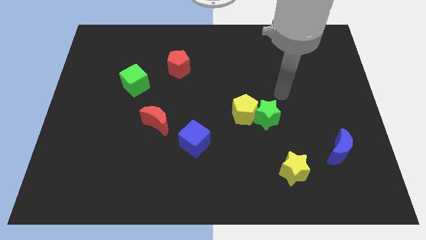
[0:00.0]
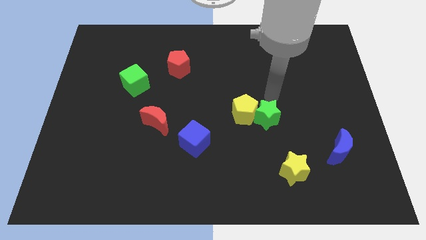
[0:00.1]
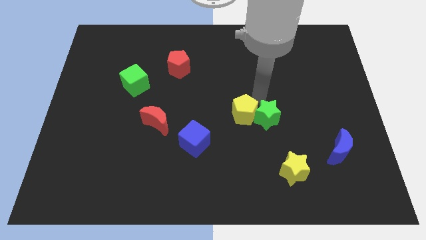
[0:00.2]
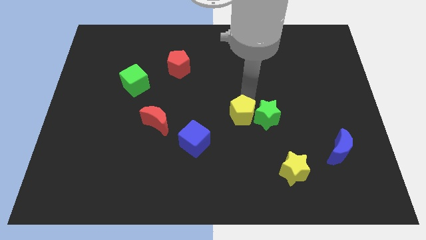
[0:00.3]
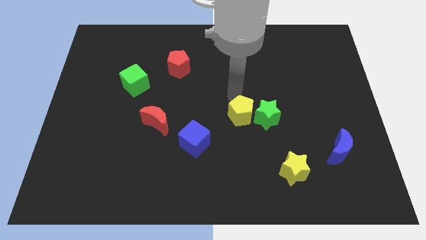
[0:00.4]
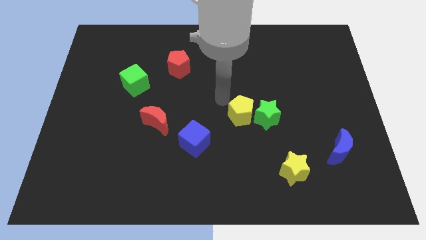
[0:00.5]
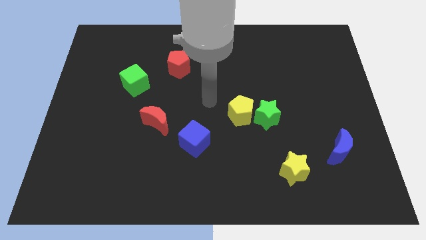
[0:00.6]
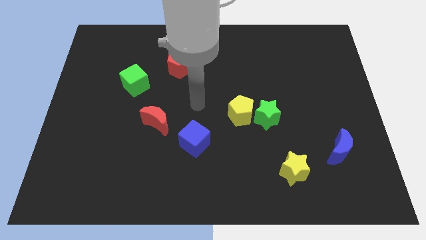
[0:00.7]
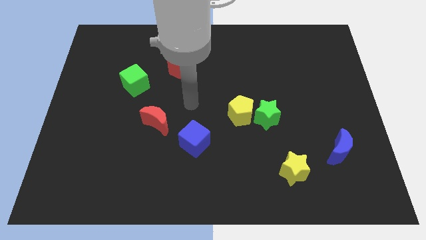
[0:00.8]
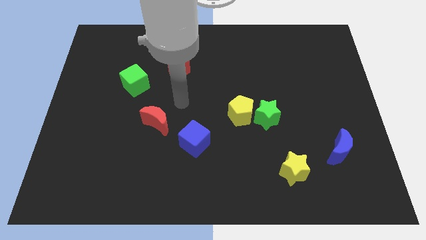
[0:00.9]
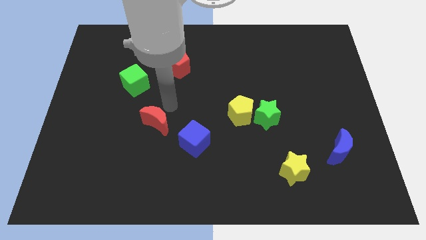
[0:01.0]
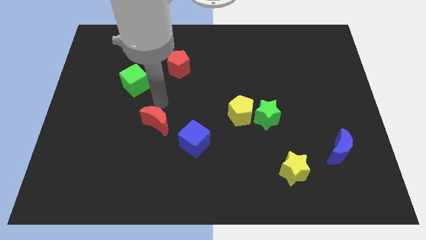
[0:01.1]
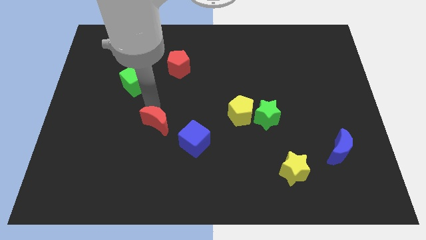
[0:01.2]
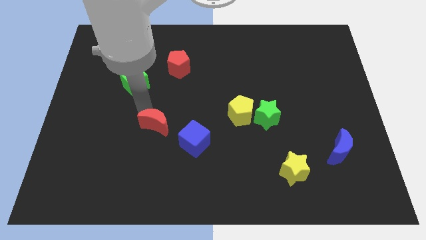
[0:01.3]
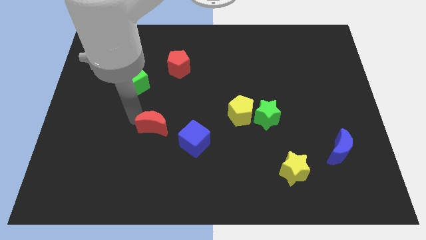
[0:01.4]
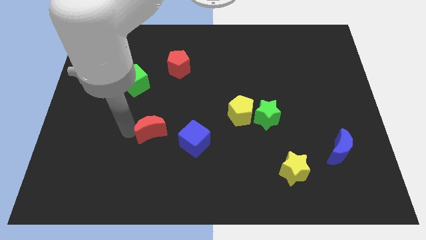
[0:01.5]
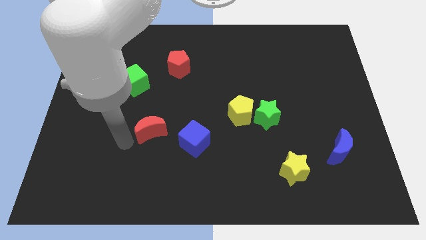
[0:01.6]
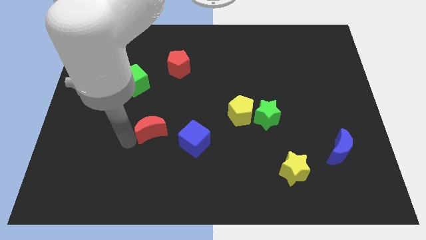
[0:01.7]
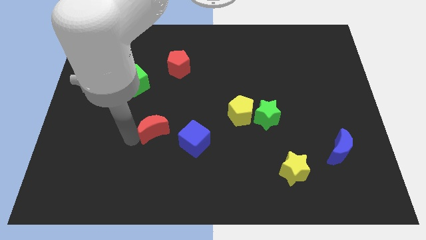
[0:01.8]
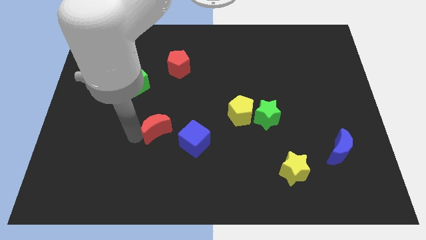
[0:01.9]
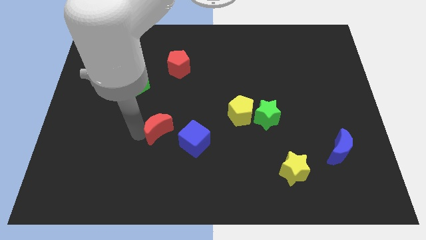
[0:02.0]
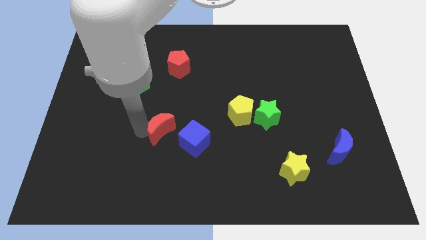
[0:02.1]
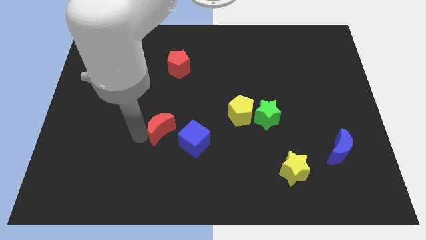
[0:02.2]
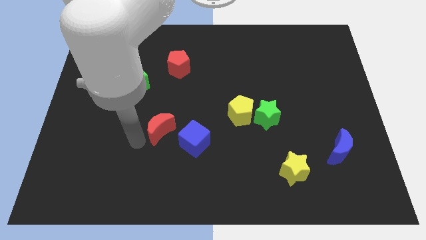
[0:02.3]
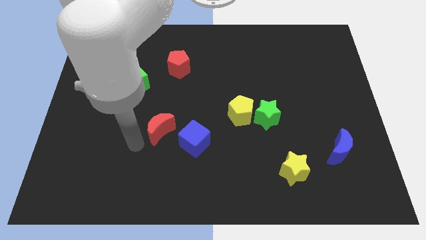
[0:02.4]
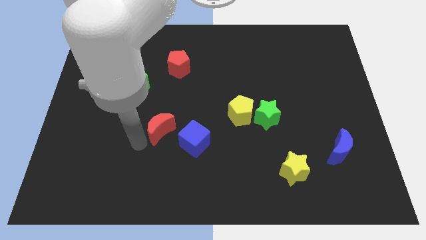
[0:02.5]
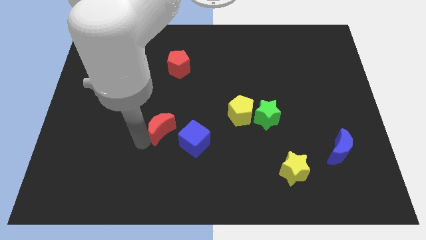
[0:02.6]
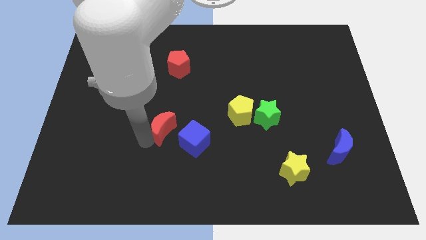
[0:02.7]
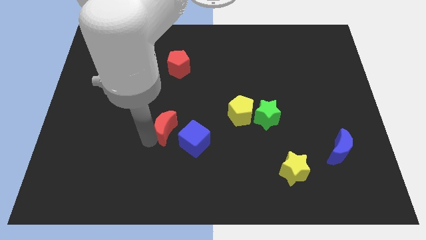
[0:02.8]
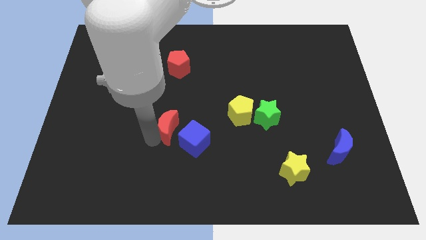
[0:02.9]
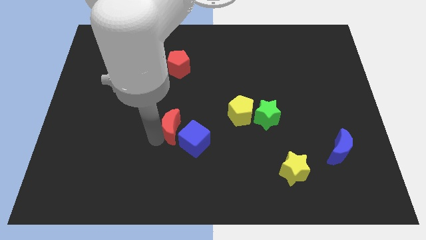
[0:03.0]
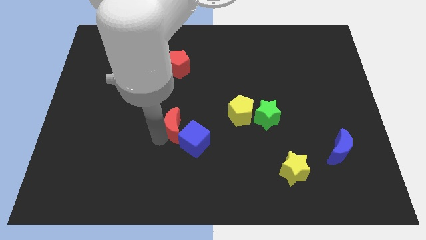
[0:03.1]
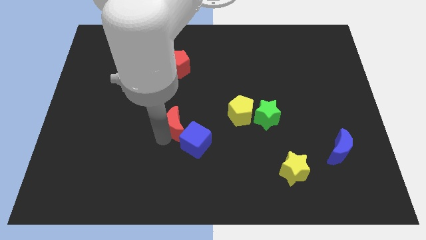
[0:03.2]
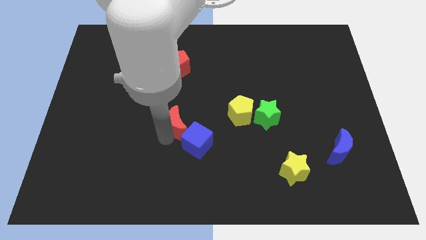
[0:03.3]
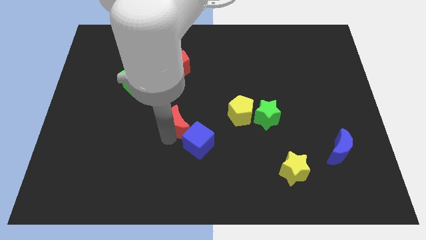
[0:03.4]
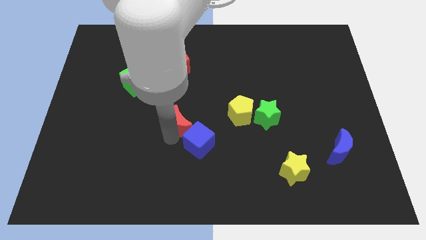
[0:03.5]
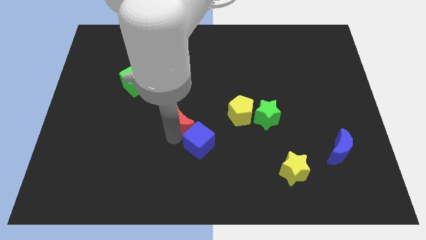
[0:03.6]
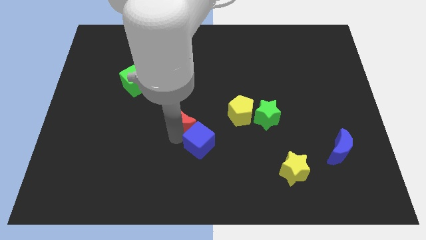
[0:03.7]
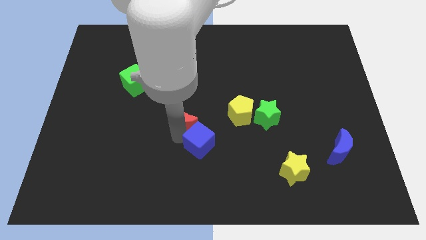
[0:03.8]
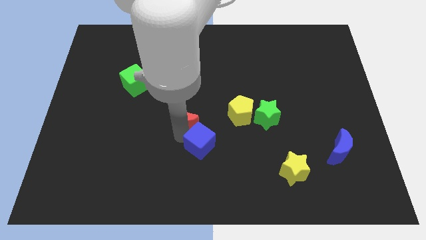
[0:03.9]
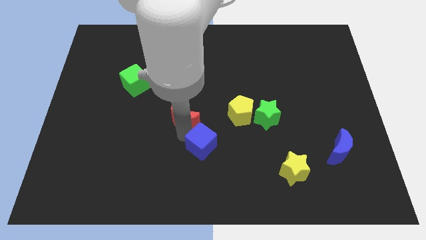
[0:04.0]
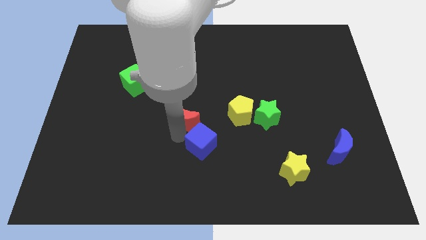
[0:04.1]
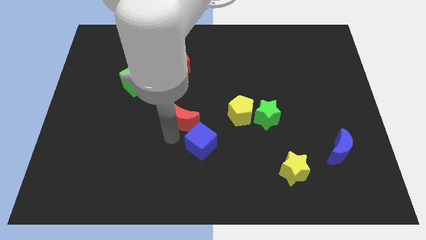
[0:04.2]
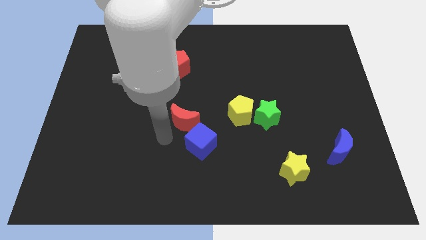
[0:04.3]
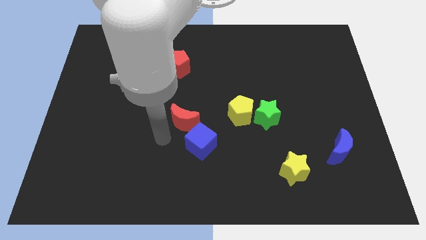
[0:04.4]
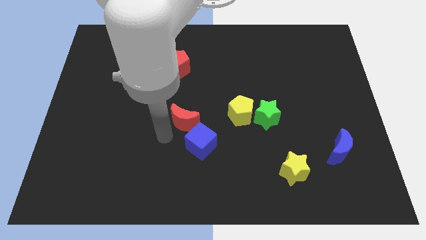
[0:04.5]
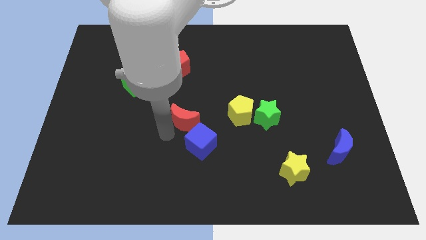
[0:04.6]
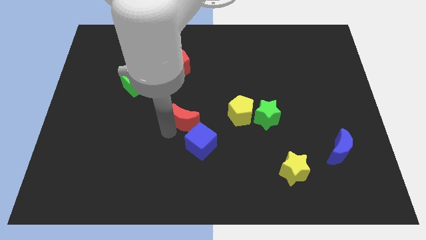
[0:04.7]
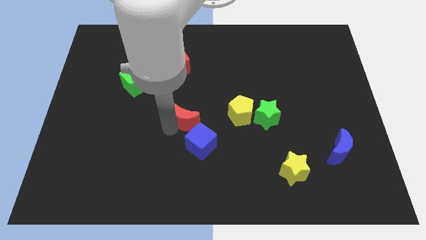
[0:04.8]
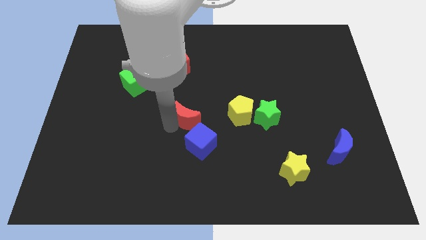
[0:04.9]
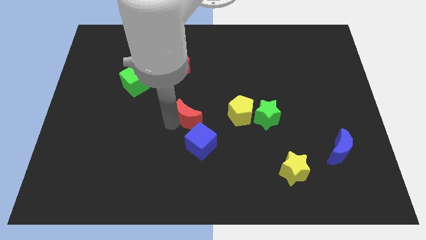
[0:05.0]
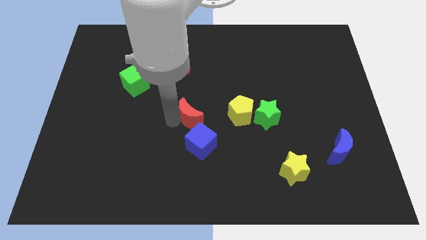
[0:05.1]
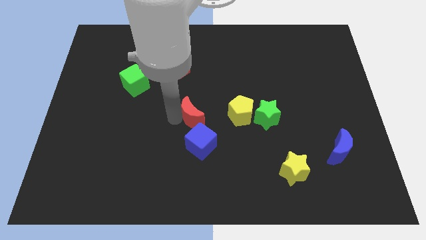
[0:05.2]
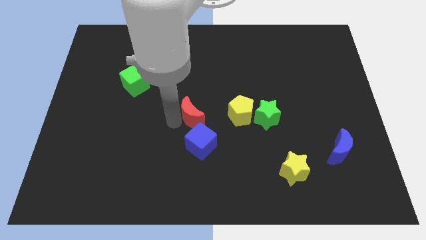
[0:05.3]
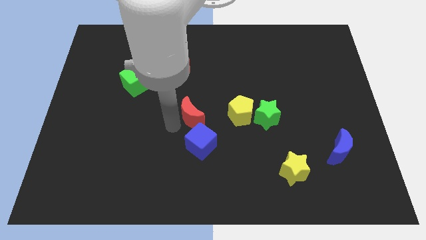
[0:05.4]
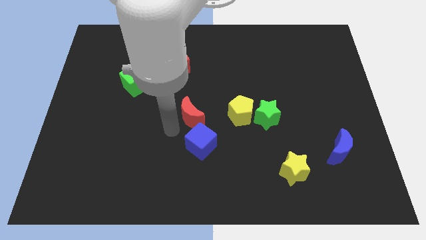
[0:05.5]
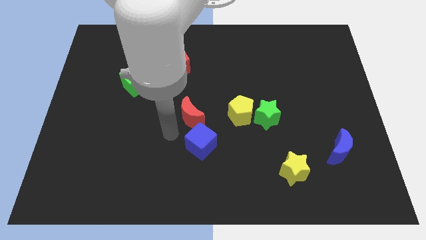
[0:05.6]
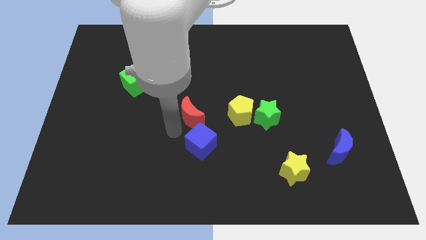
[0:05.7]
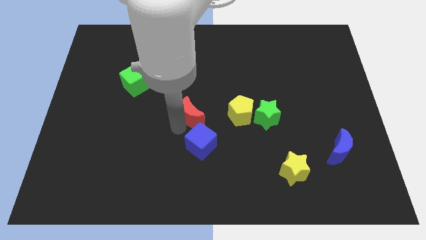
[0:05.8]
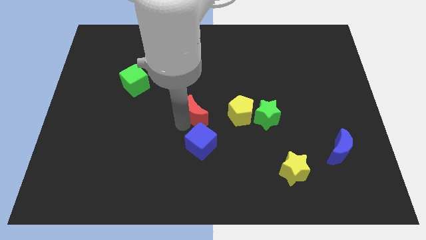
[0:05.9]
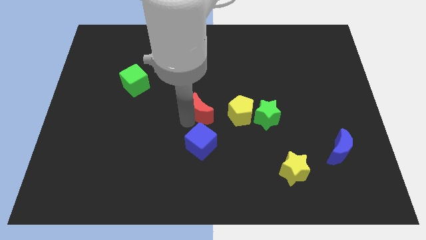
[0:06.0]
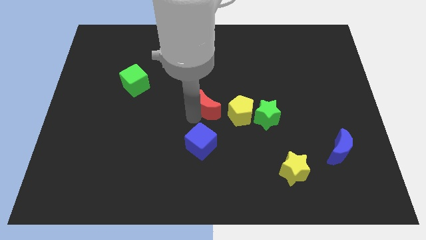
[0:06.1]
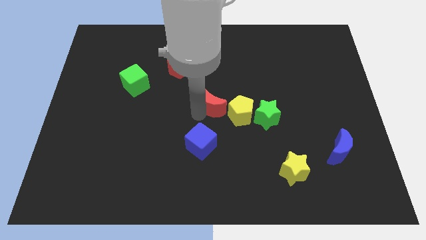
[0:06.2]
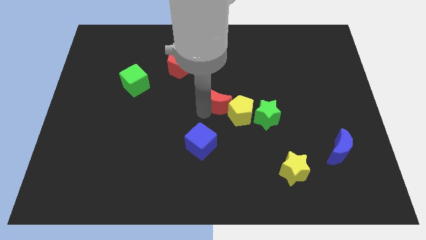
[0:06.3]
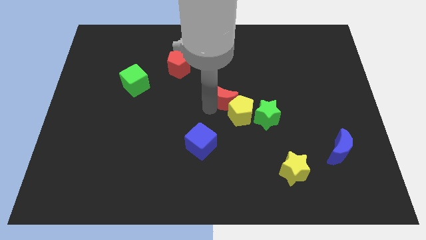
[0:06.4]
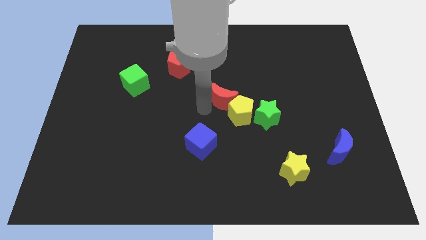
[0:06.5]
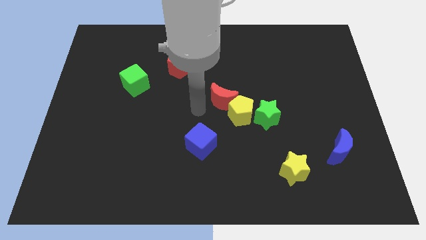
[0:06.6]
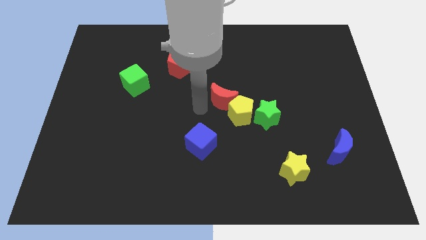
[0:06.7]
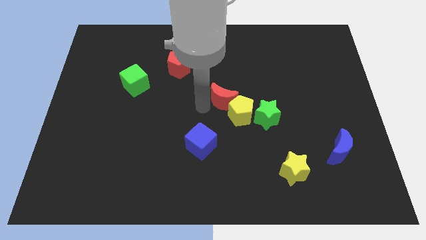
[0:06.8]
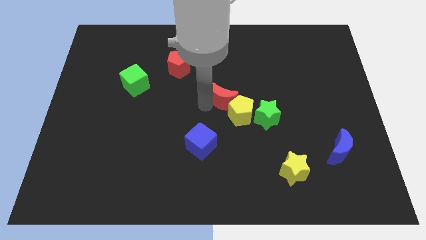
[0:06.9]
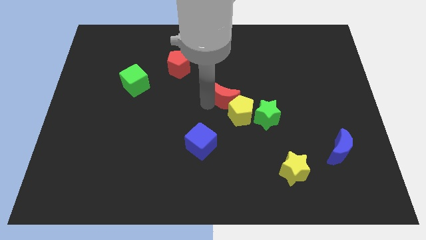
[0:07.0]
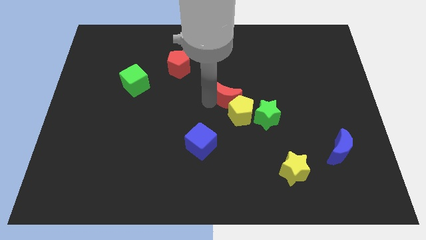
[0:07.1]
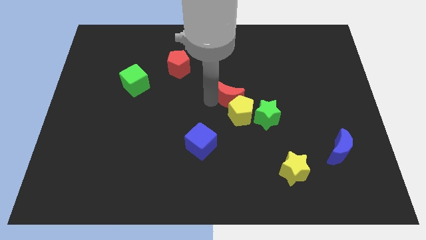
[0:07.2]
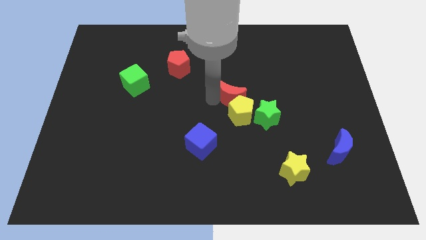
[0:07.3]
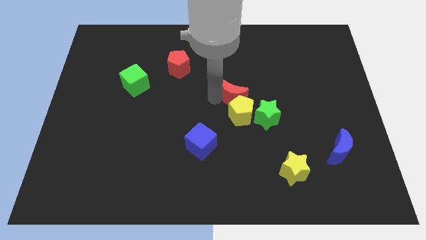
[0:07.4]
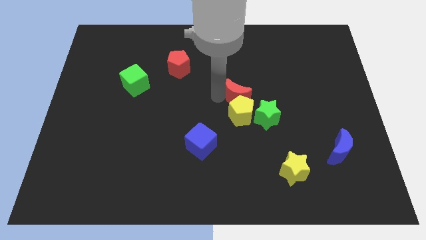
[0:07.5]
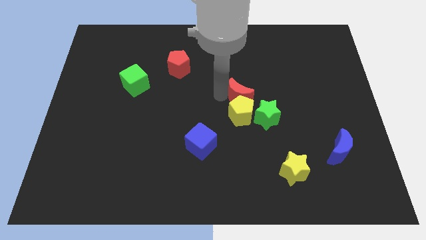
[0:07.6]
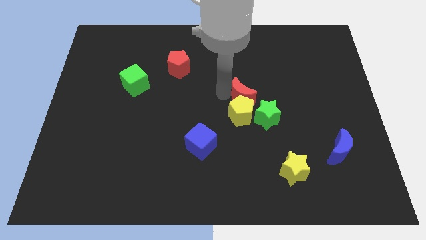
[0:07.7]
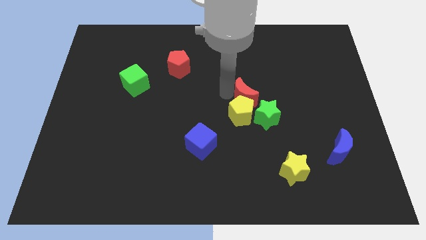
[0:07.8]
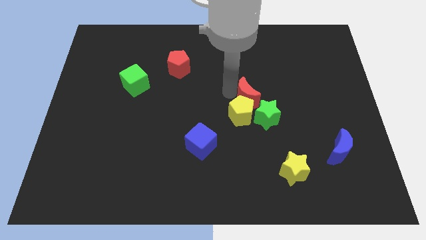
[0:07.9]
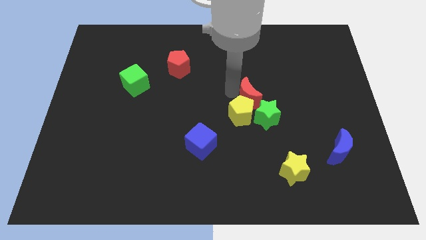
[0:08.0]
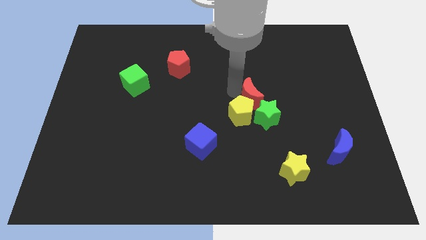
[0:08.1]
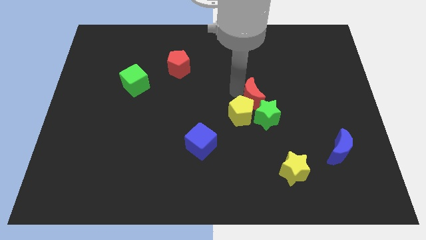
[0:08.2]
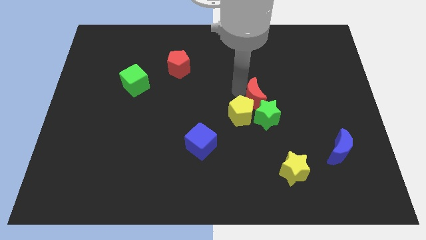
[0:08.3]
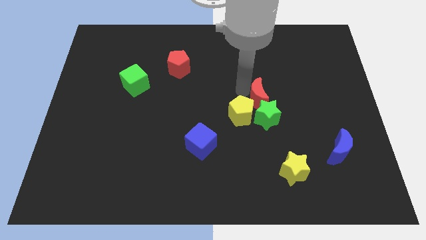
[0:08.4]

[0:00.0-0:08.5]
push the red moon to the right side of the yellow pentagon
